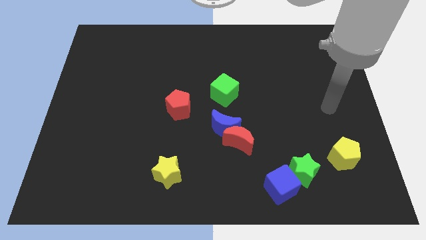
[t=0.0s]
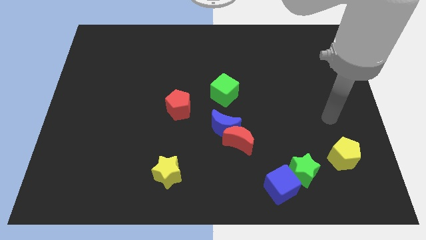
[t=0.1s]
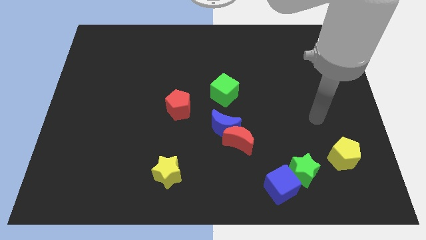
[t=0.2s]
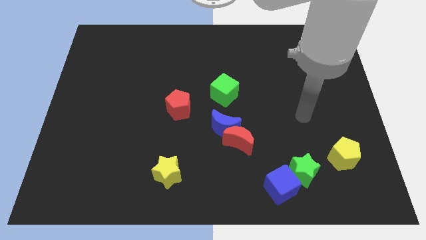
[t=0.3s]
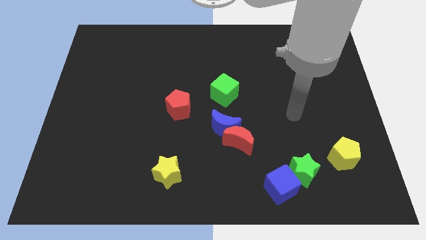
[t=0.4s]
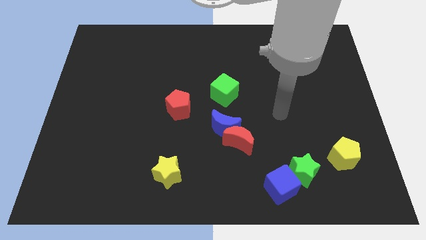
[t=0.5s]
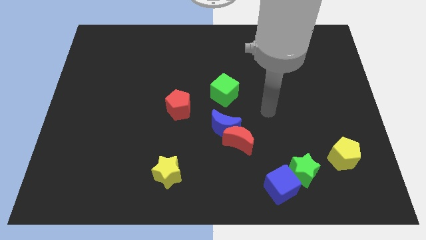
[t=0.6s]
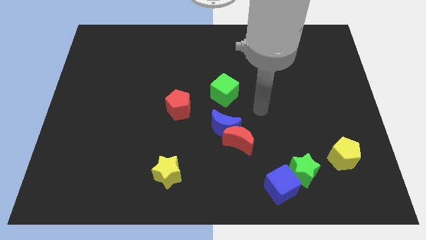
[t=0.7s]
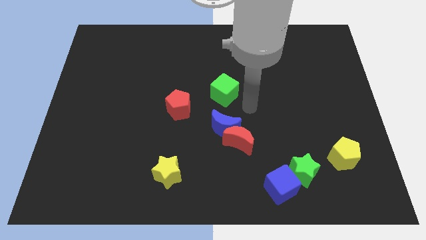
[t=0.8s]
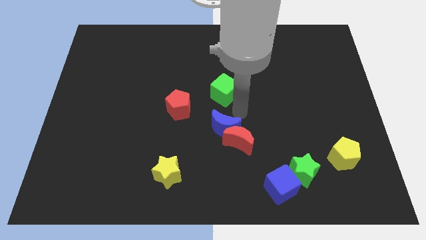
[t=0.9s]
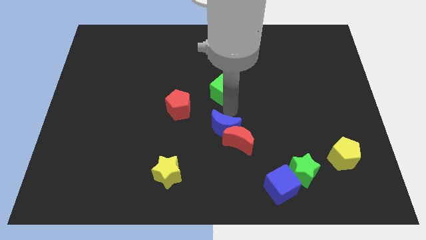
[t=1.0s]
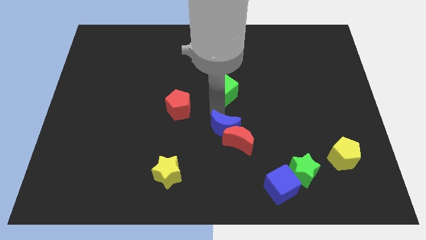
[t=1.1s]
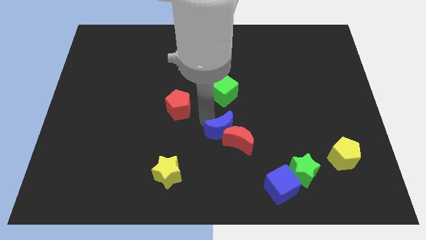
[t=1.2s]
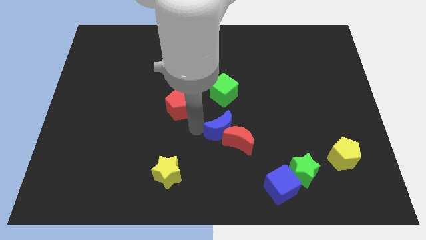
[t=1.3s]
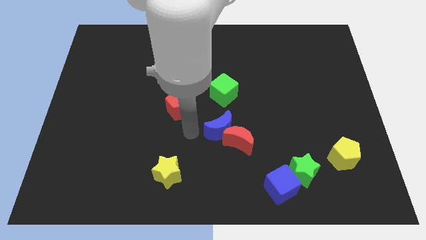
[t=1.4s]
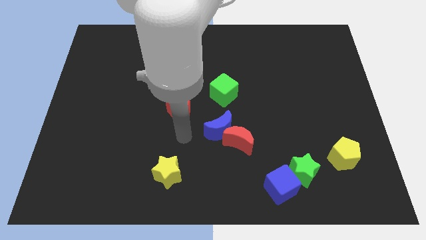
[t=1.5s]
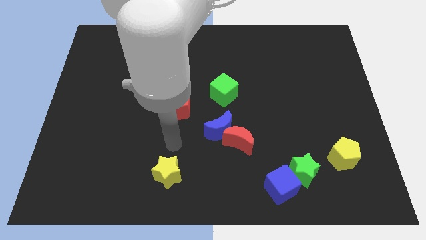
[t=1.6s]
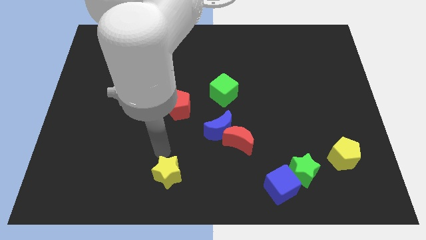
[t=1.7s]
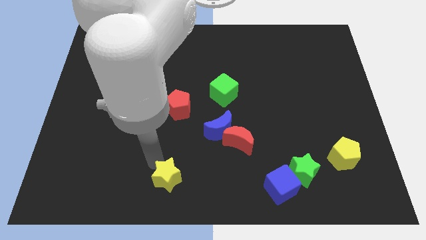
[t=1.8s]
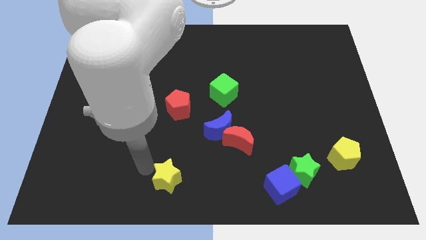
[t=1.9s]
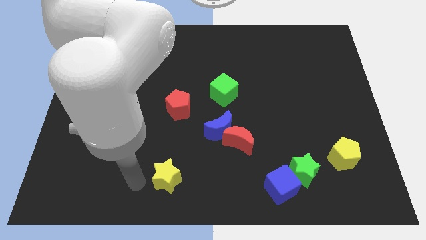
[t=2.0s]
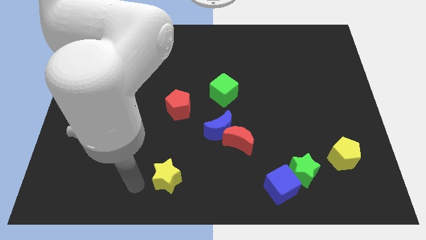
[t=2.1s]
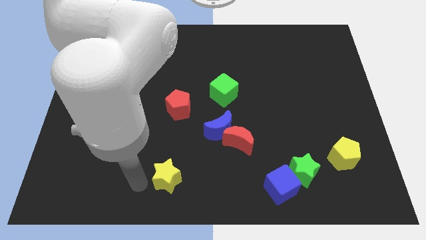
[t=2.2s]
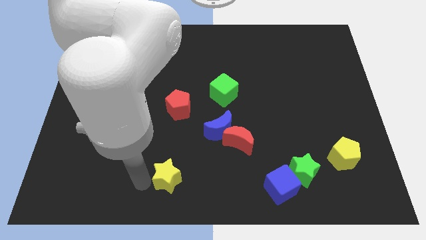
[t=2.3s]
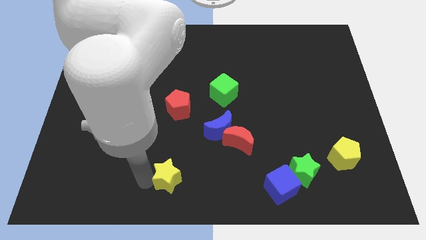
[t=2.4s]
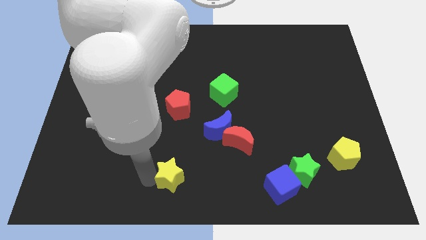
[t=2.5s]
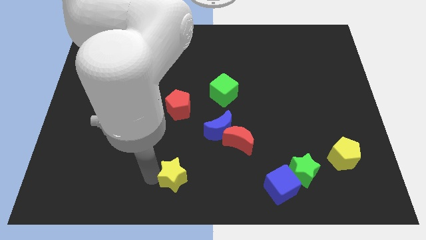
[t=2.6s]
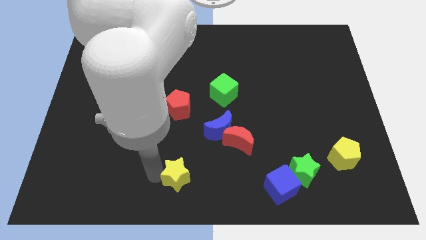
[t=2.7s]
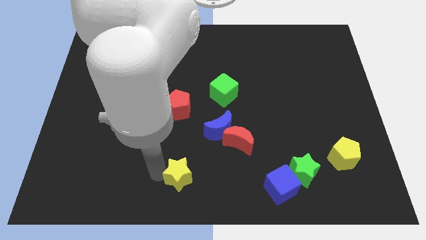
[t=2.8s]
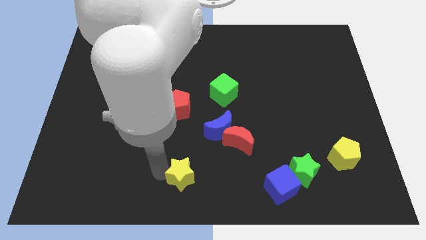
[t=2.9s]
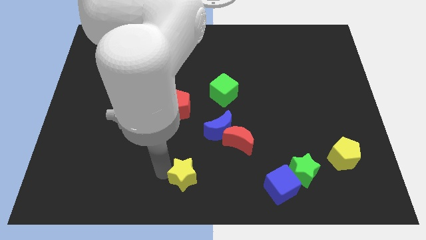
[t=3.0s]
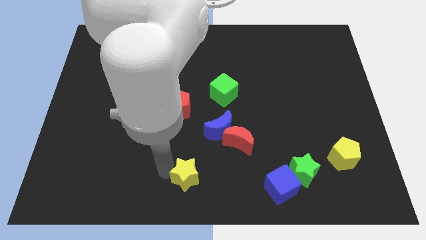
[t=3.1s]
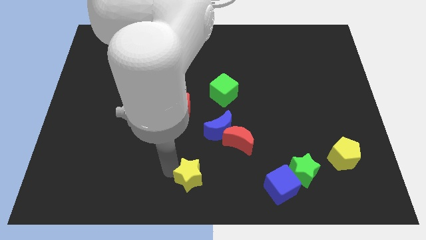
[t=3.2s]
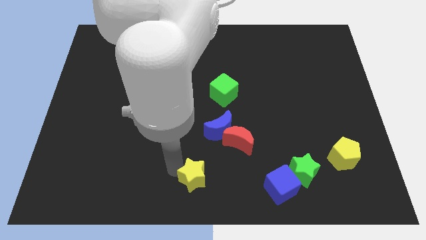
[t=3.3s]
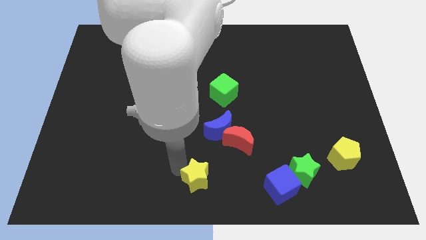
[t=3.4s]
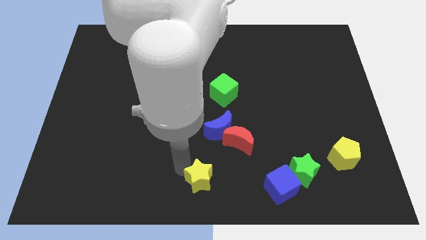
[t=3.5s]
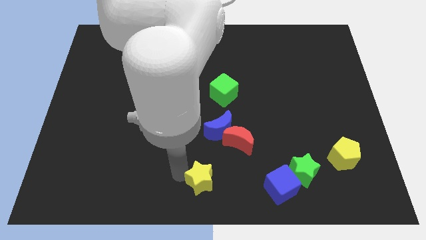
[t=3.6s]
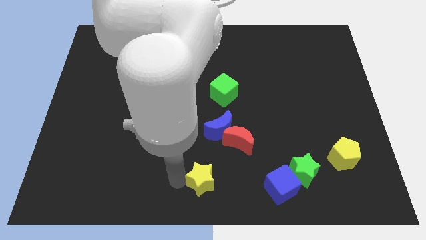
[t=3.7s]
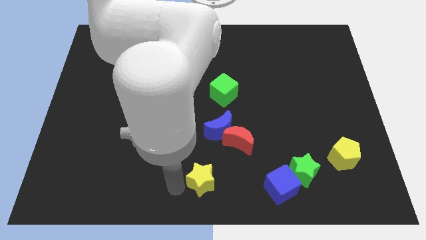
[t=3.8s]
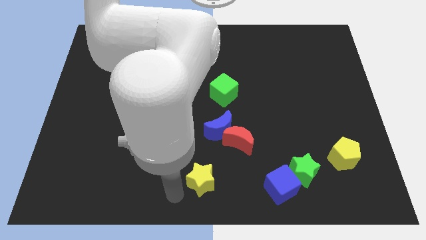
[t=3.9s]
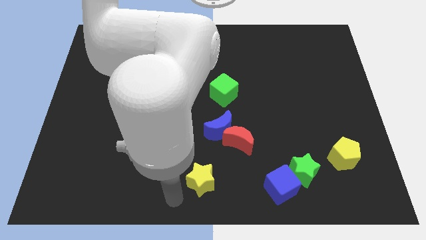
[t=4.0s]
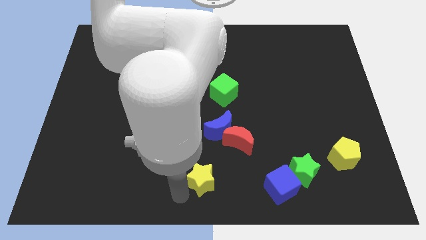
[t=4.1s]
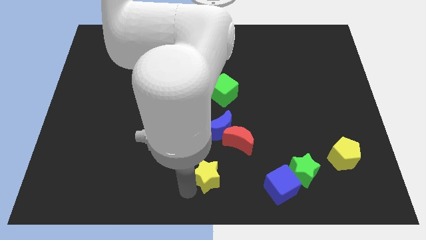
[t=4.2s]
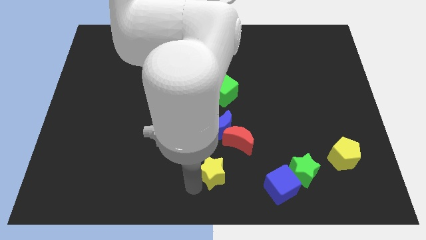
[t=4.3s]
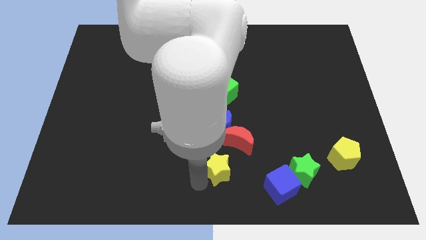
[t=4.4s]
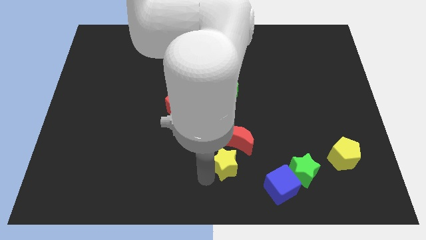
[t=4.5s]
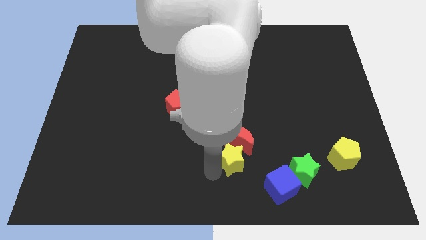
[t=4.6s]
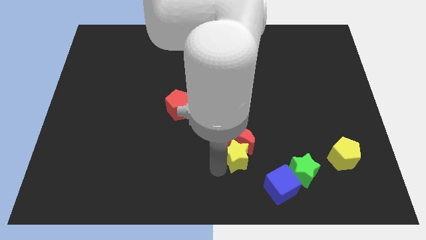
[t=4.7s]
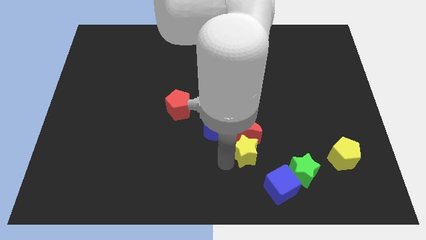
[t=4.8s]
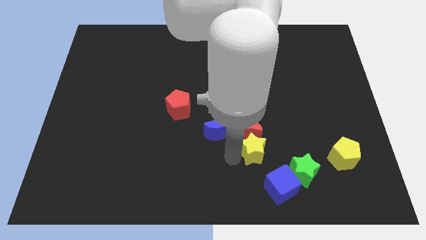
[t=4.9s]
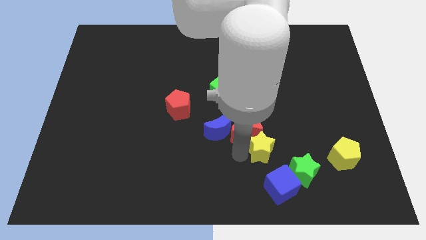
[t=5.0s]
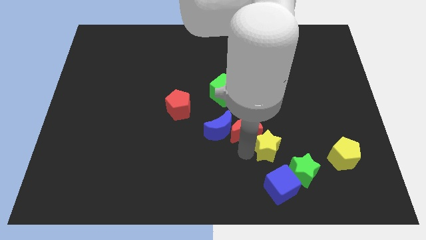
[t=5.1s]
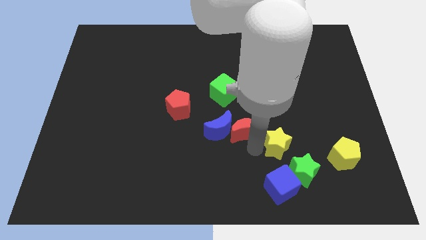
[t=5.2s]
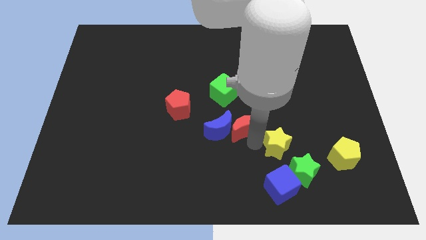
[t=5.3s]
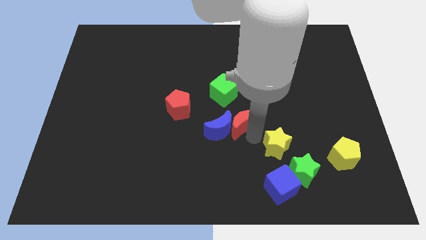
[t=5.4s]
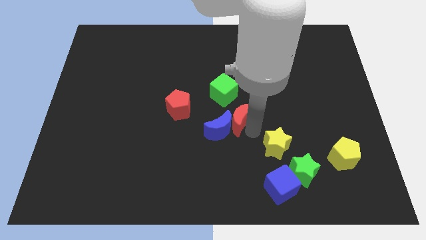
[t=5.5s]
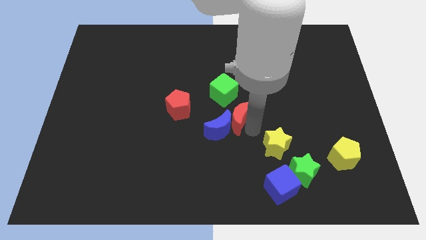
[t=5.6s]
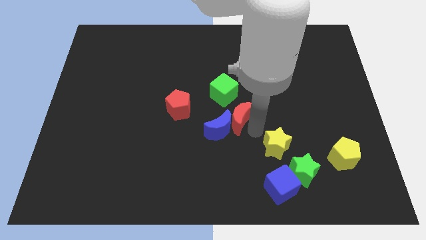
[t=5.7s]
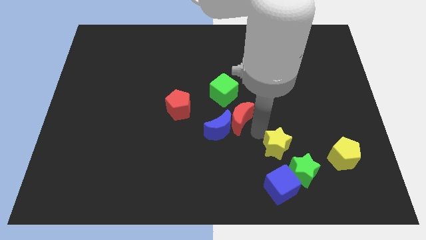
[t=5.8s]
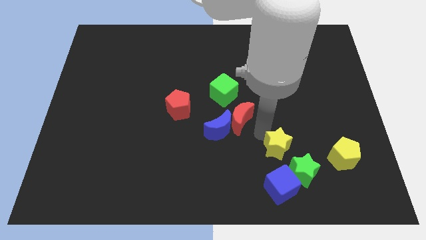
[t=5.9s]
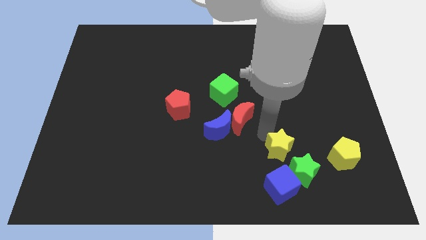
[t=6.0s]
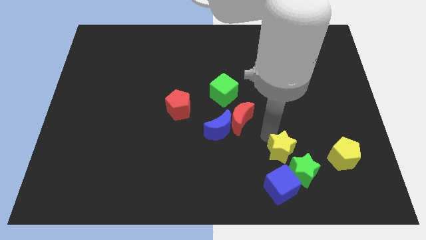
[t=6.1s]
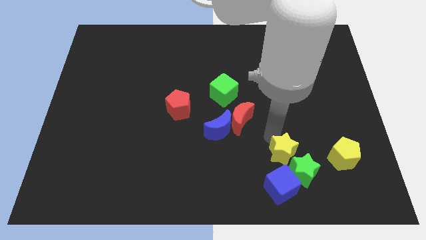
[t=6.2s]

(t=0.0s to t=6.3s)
put the yellow star diagonally up and to the right of the blue cube
